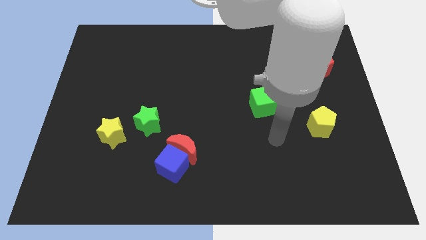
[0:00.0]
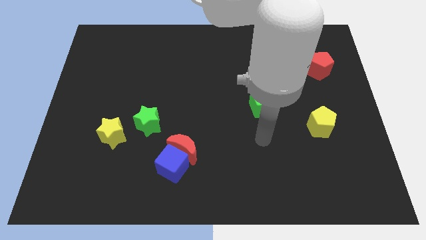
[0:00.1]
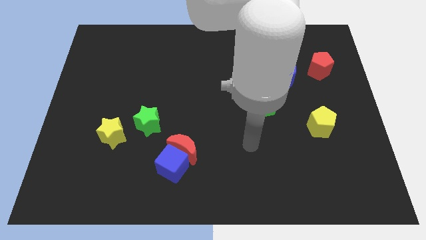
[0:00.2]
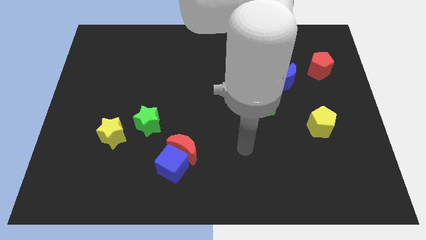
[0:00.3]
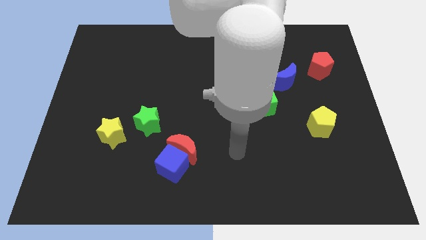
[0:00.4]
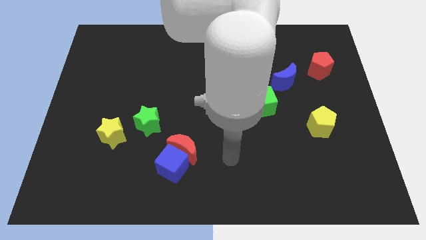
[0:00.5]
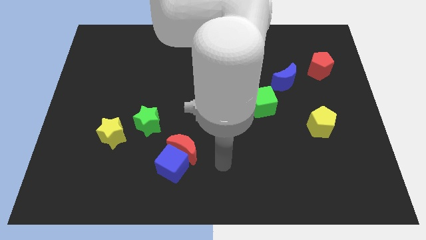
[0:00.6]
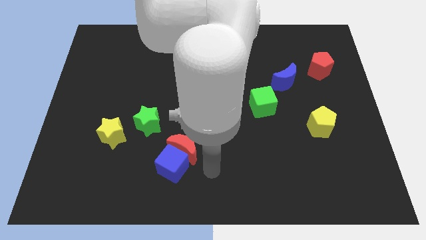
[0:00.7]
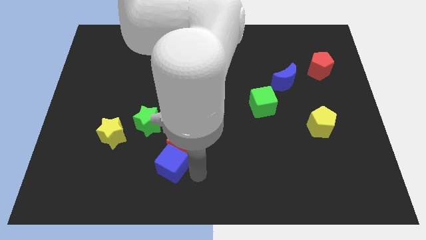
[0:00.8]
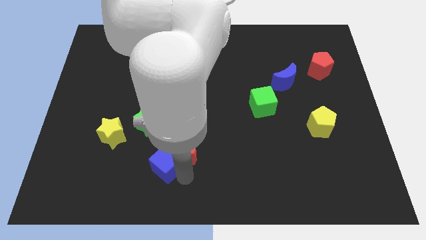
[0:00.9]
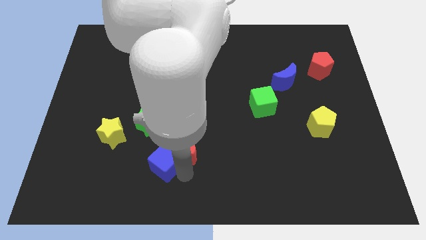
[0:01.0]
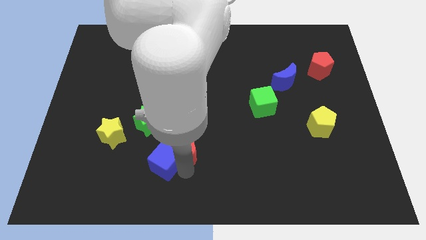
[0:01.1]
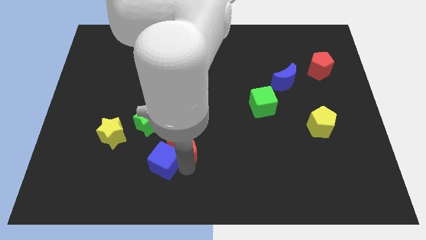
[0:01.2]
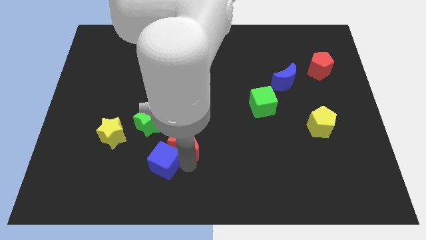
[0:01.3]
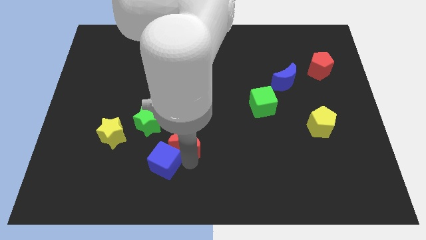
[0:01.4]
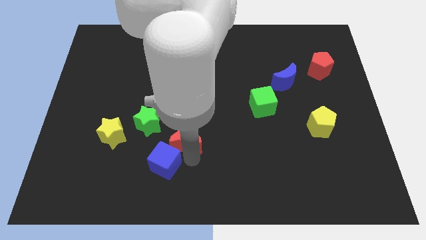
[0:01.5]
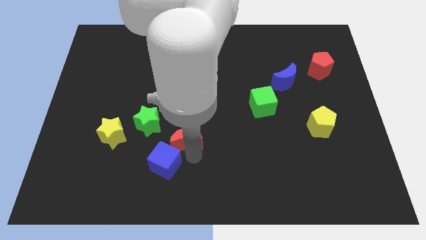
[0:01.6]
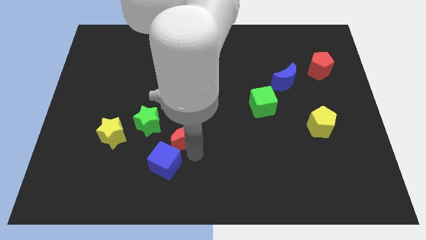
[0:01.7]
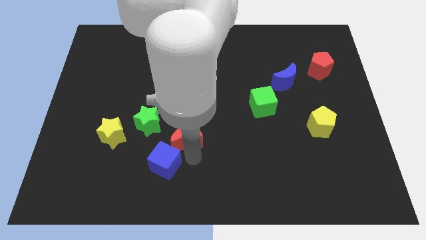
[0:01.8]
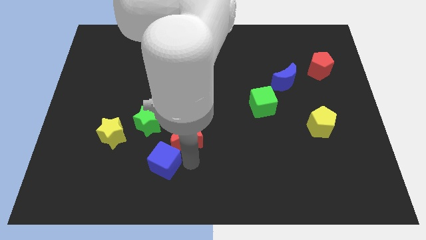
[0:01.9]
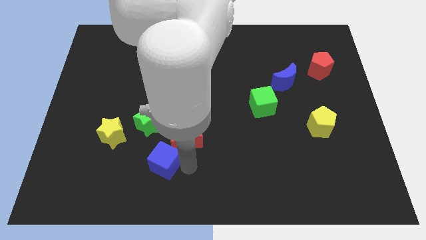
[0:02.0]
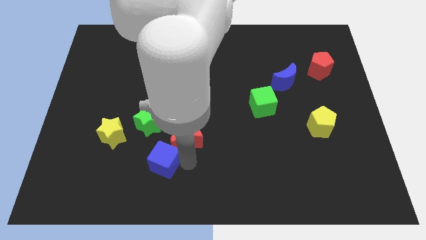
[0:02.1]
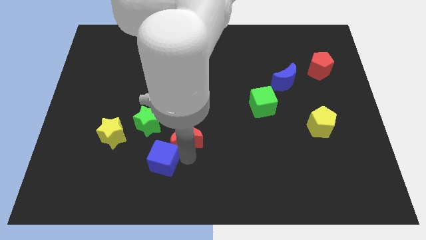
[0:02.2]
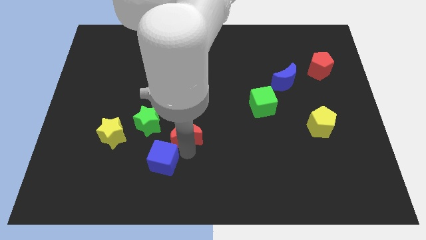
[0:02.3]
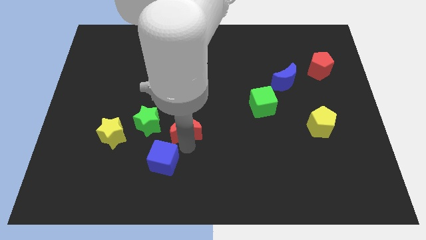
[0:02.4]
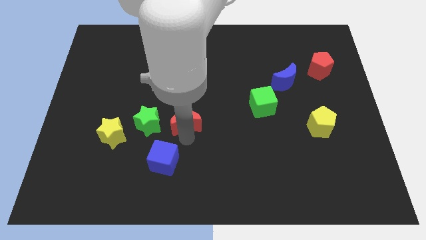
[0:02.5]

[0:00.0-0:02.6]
slide the red moon up somewhat

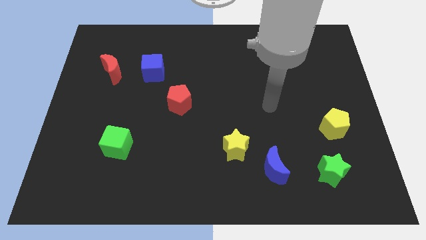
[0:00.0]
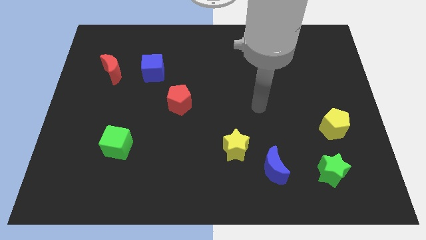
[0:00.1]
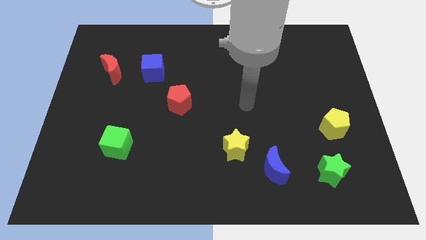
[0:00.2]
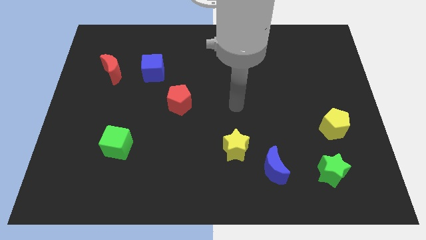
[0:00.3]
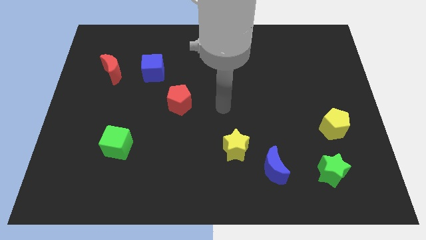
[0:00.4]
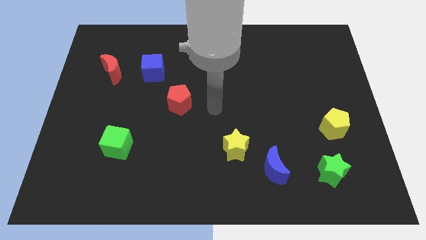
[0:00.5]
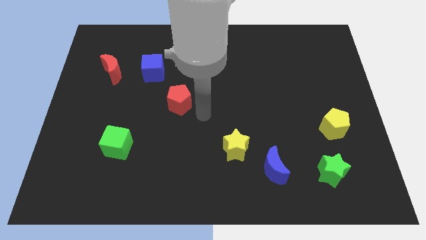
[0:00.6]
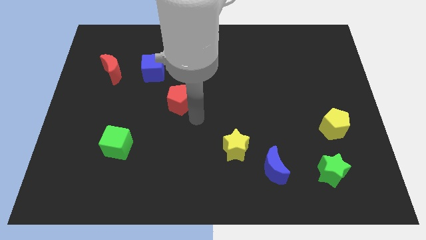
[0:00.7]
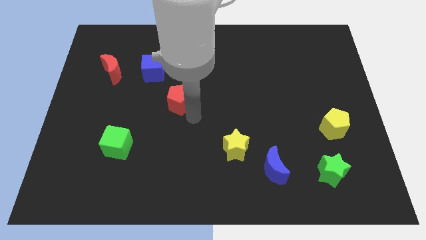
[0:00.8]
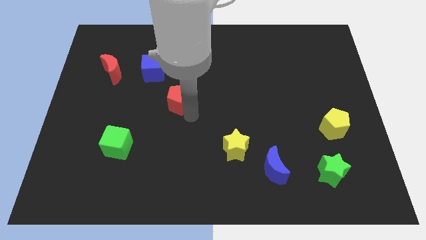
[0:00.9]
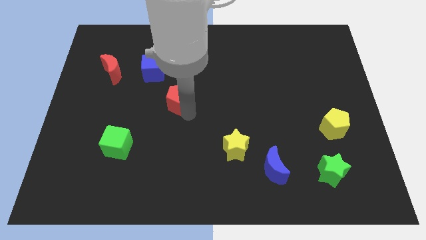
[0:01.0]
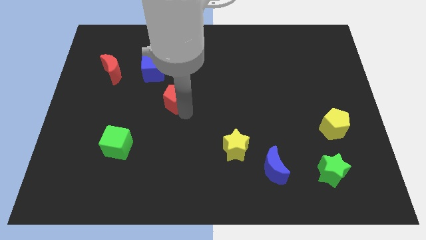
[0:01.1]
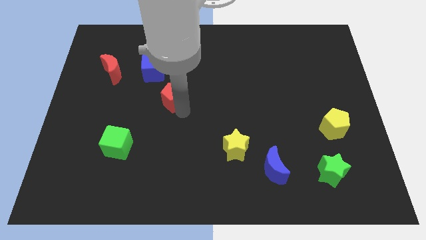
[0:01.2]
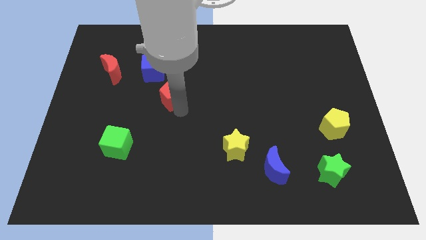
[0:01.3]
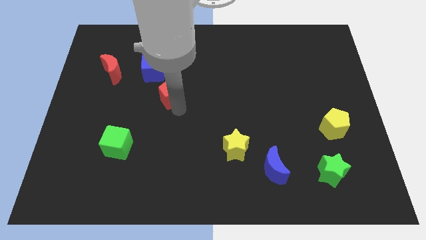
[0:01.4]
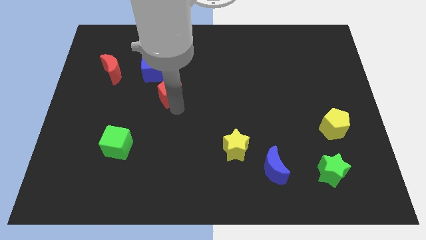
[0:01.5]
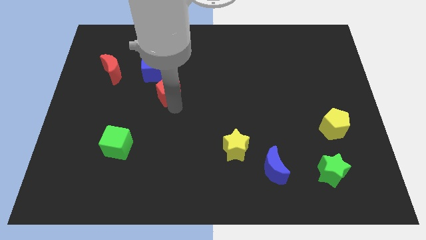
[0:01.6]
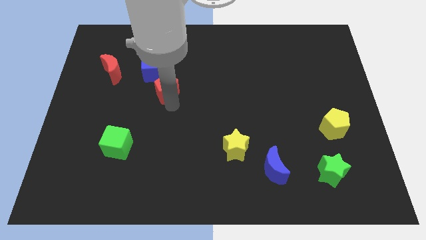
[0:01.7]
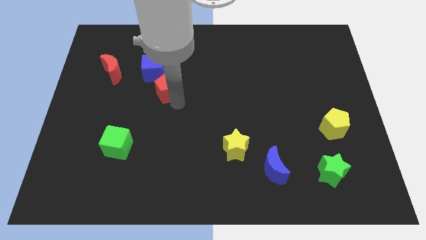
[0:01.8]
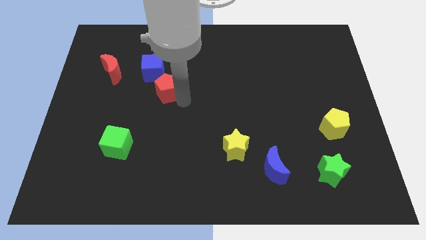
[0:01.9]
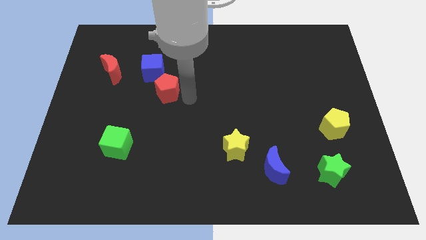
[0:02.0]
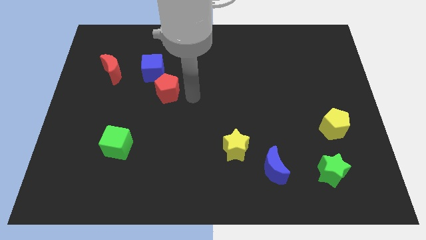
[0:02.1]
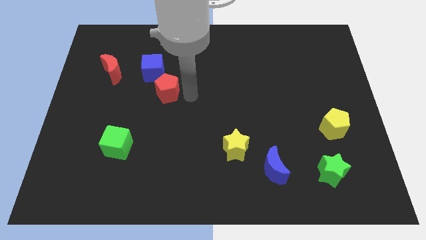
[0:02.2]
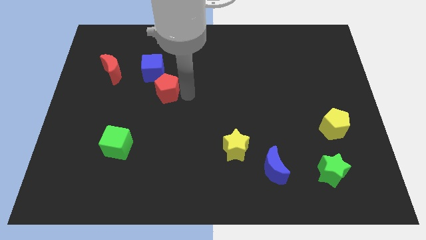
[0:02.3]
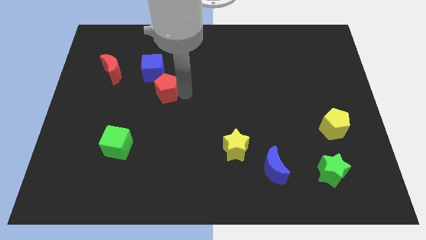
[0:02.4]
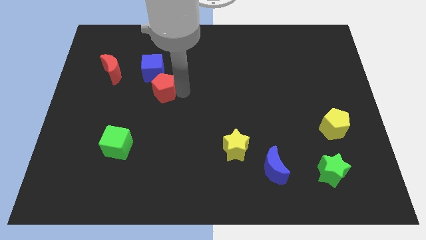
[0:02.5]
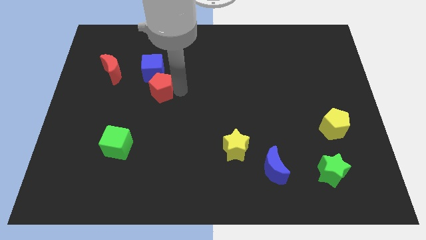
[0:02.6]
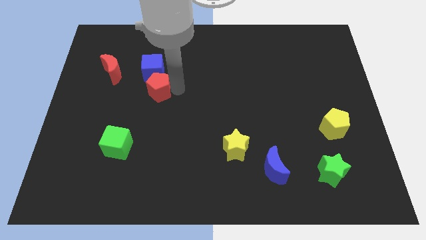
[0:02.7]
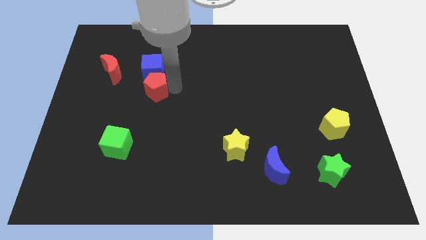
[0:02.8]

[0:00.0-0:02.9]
slide the red pentagon diagonally up and left a little

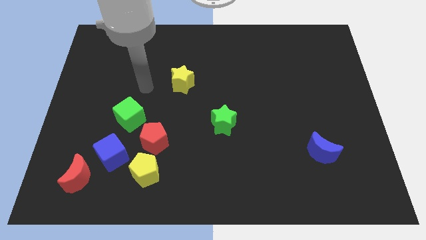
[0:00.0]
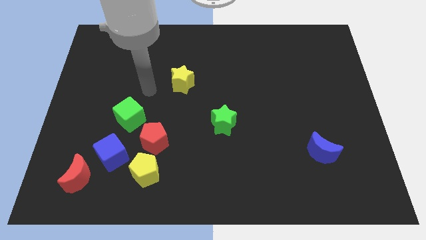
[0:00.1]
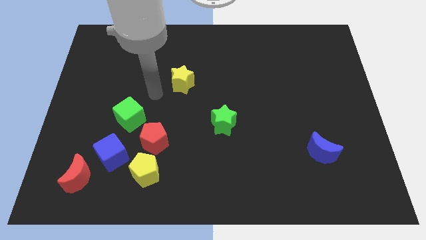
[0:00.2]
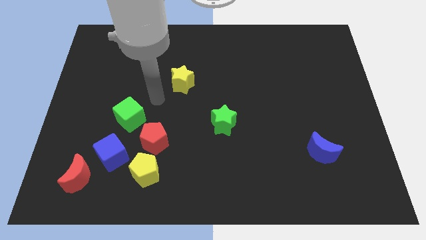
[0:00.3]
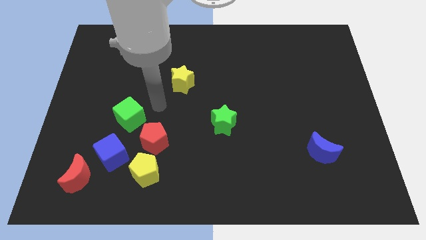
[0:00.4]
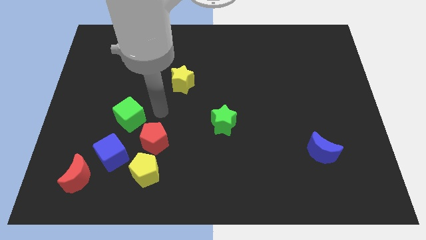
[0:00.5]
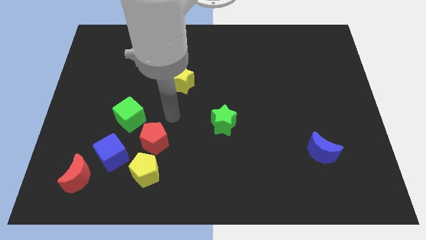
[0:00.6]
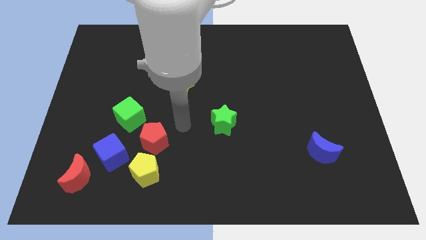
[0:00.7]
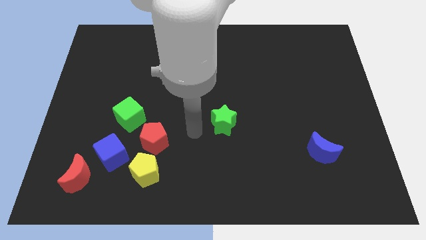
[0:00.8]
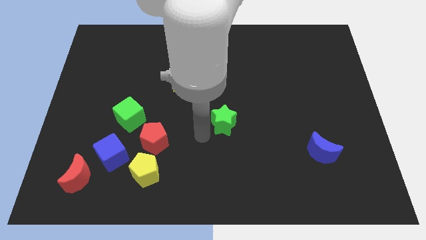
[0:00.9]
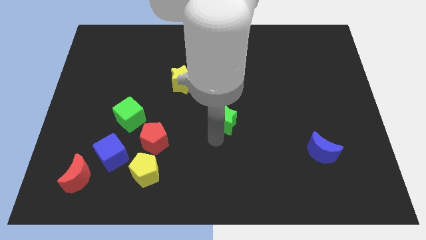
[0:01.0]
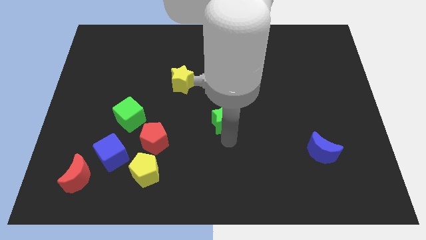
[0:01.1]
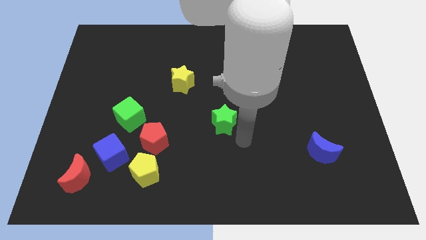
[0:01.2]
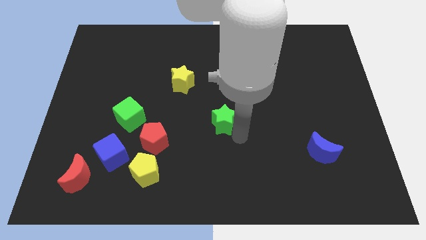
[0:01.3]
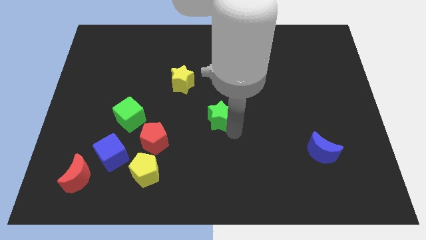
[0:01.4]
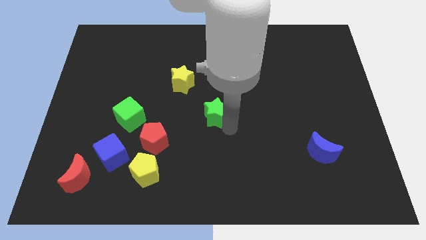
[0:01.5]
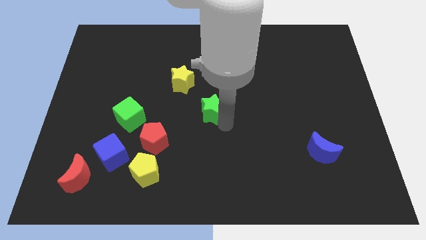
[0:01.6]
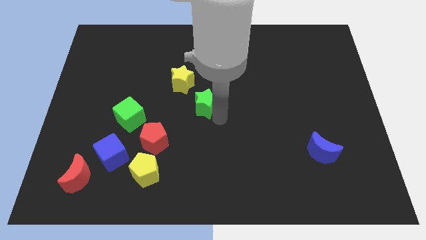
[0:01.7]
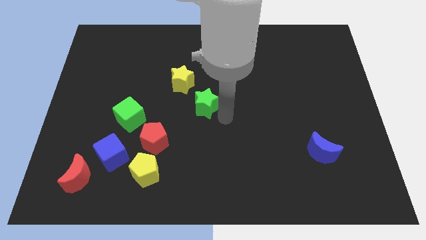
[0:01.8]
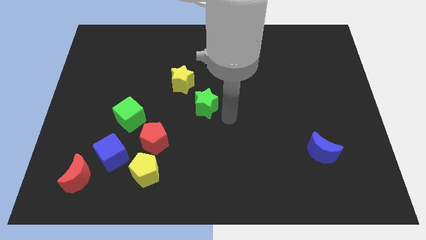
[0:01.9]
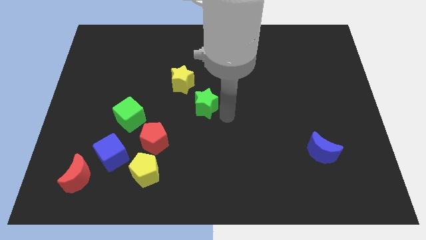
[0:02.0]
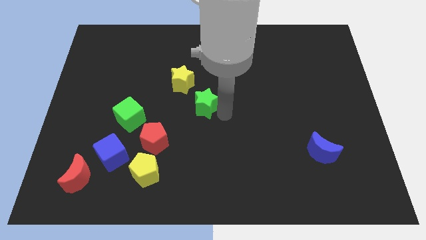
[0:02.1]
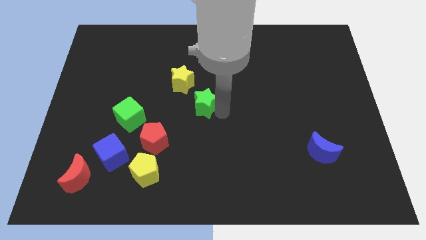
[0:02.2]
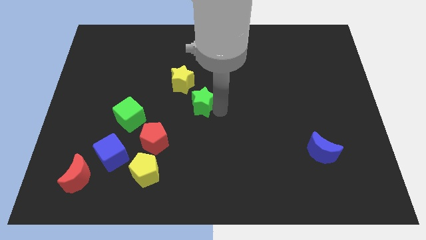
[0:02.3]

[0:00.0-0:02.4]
slightly push the green star diagonally up and left
